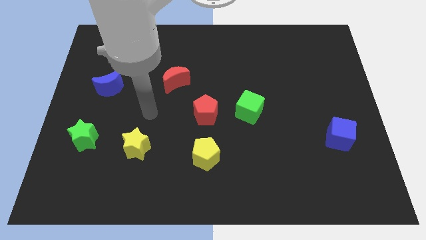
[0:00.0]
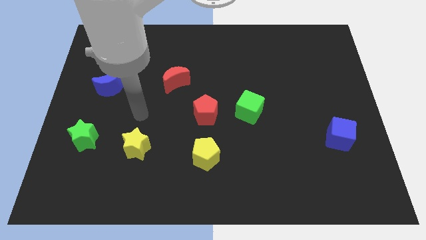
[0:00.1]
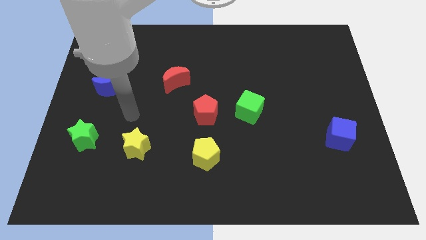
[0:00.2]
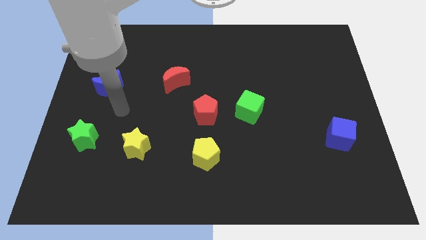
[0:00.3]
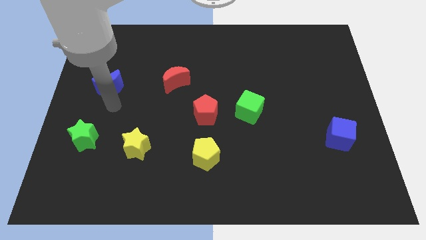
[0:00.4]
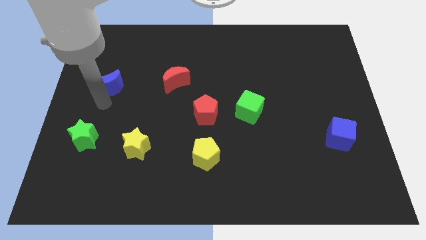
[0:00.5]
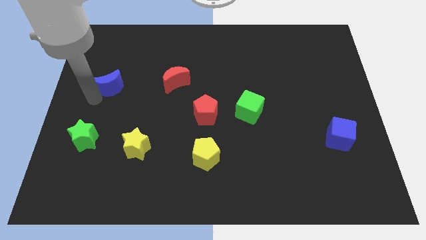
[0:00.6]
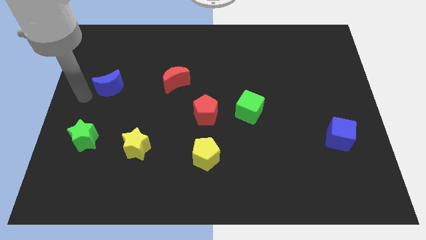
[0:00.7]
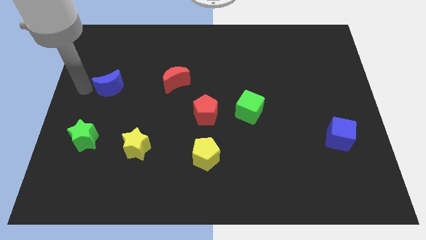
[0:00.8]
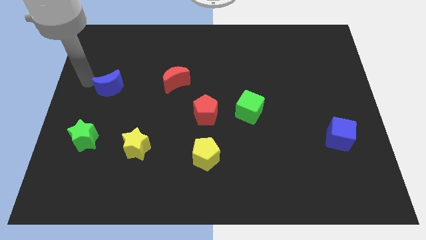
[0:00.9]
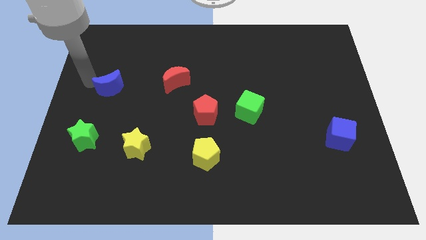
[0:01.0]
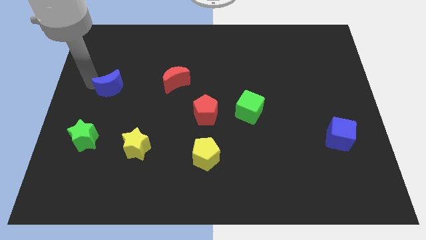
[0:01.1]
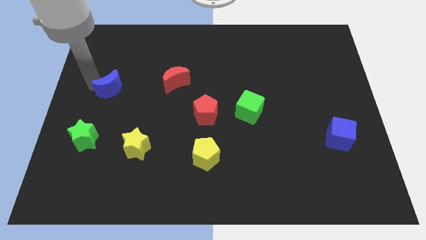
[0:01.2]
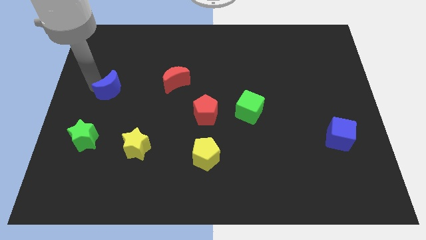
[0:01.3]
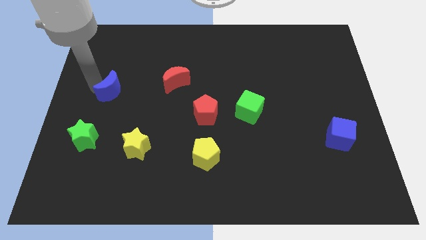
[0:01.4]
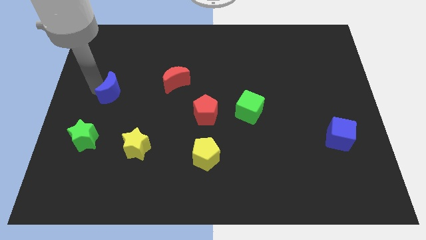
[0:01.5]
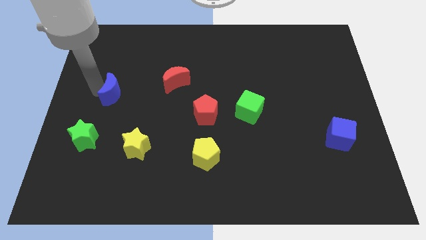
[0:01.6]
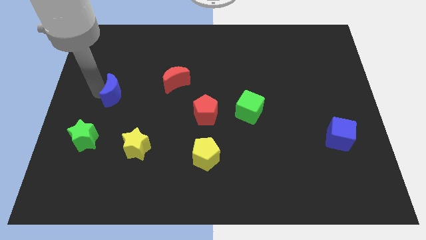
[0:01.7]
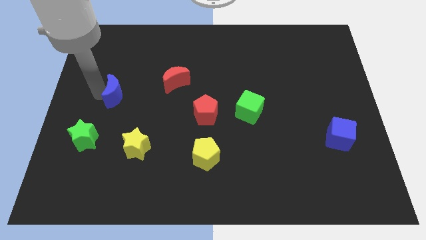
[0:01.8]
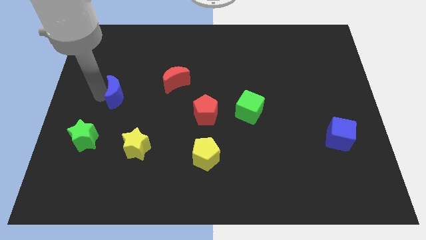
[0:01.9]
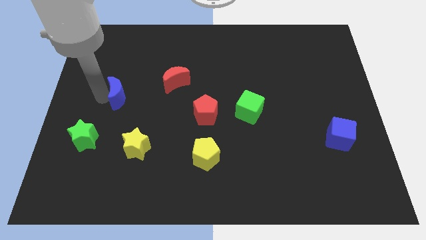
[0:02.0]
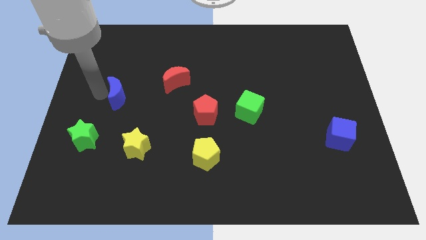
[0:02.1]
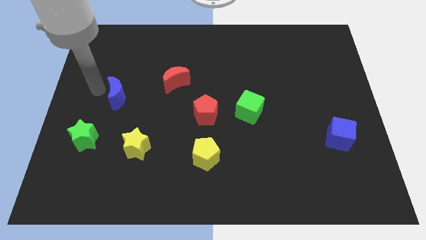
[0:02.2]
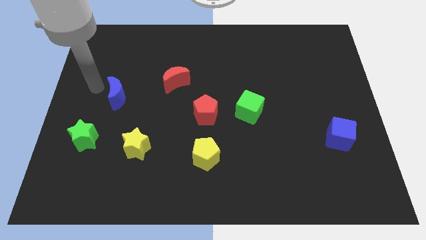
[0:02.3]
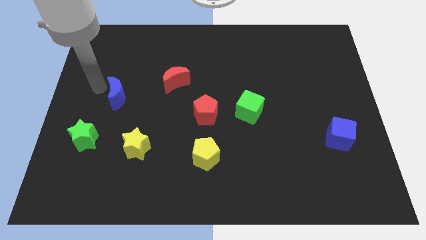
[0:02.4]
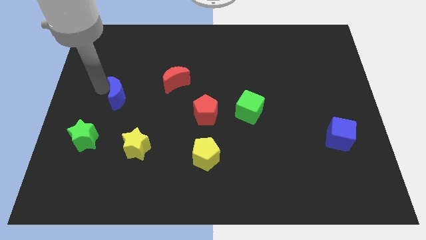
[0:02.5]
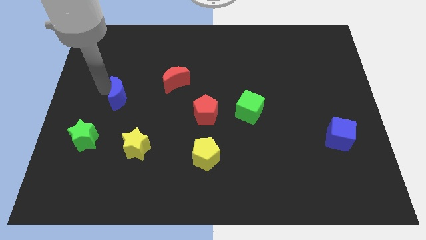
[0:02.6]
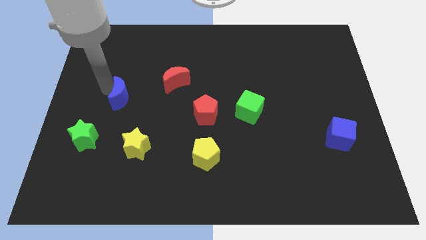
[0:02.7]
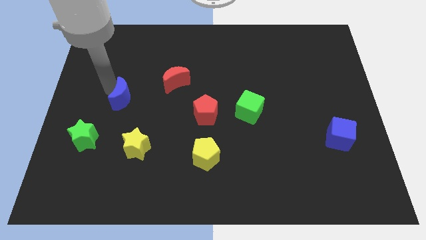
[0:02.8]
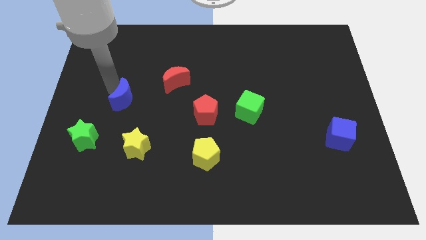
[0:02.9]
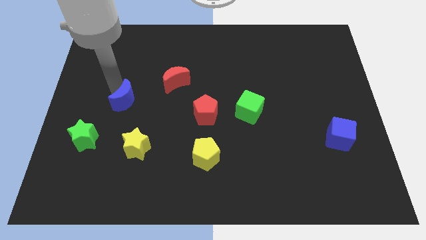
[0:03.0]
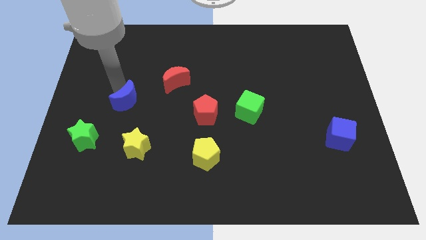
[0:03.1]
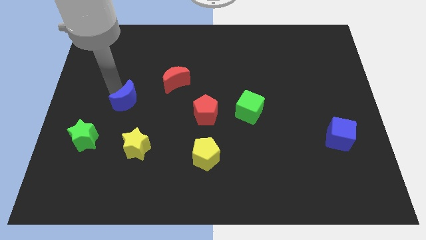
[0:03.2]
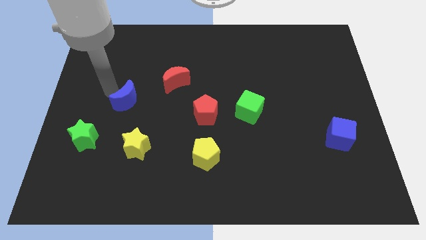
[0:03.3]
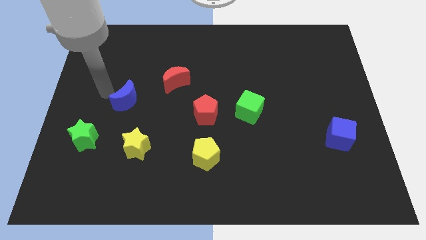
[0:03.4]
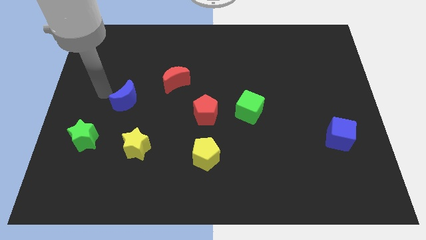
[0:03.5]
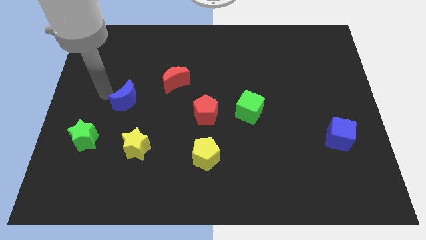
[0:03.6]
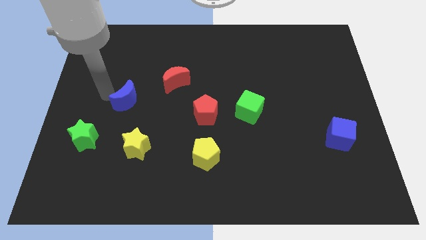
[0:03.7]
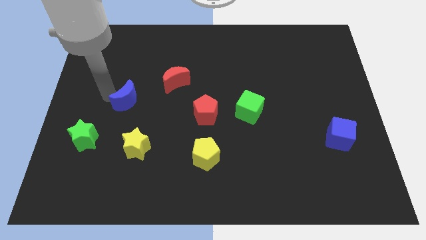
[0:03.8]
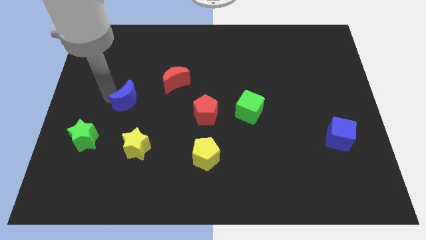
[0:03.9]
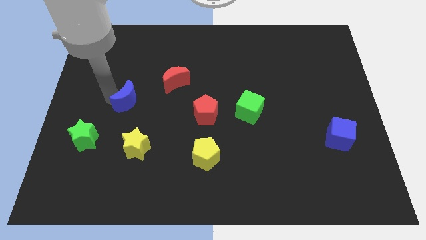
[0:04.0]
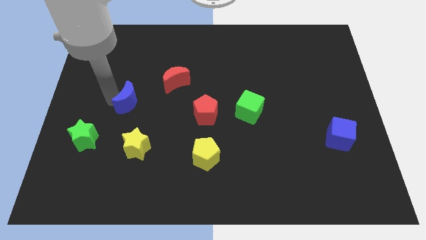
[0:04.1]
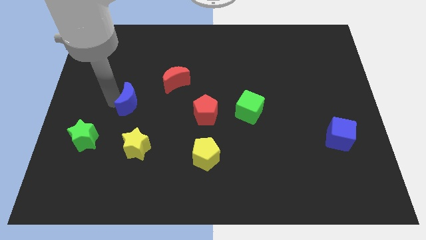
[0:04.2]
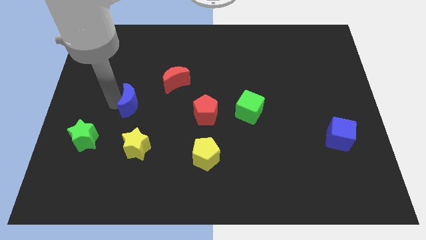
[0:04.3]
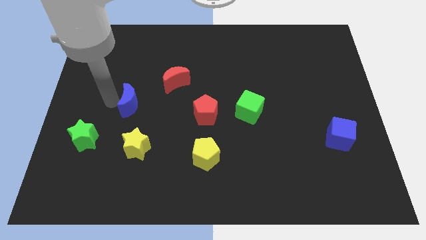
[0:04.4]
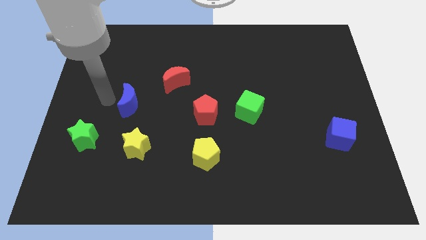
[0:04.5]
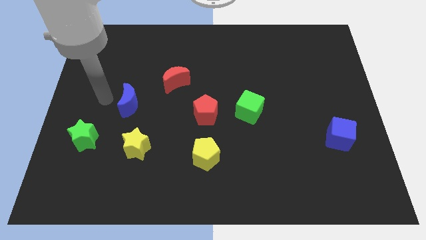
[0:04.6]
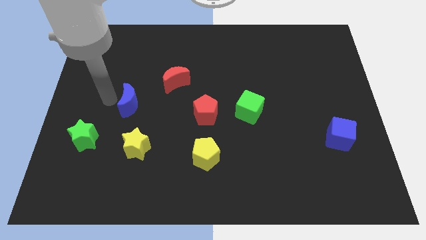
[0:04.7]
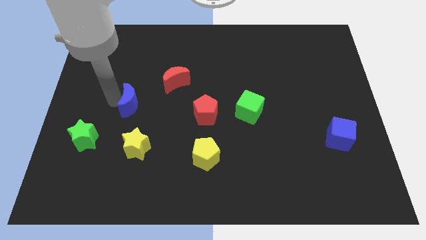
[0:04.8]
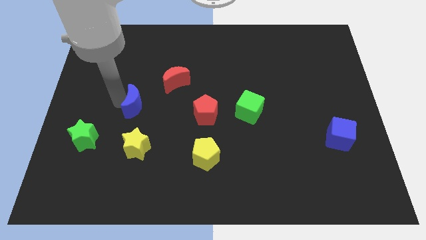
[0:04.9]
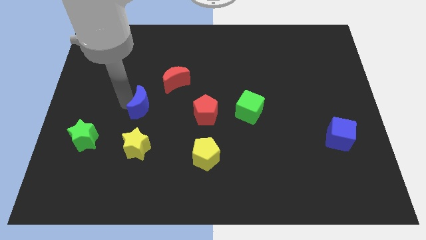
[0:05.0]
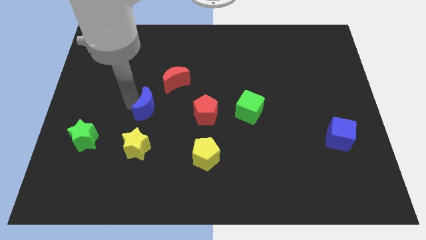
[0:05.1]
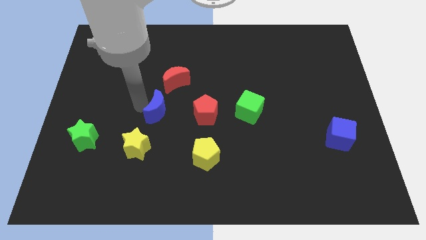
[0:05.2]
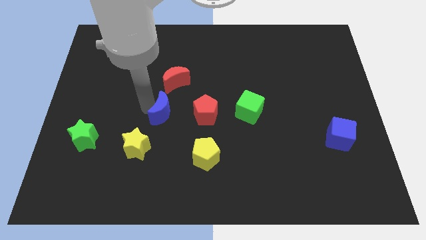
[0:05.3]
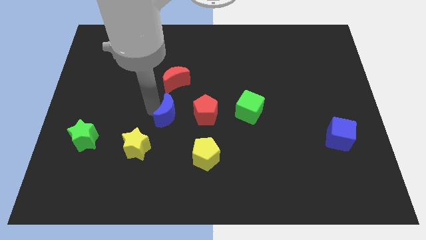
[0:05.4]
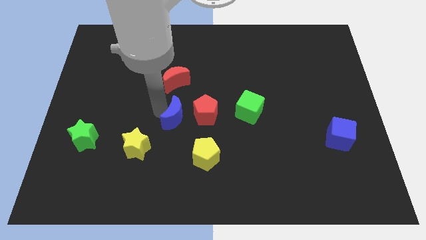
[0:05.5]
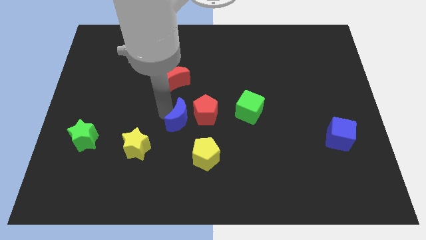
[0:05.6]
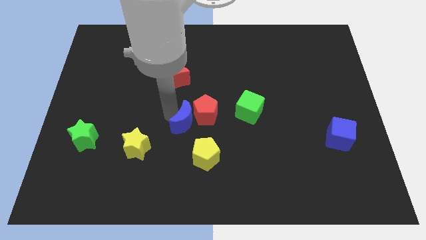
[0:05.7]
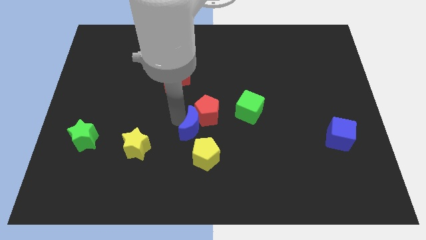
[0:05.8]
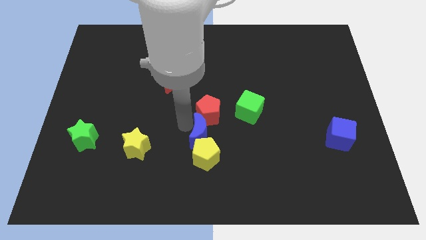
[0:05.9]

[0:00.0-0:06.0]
slide the blue moon diagonally up and to the right of the yellow pentagon

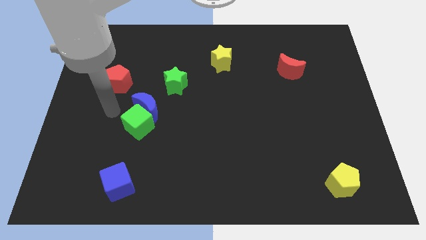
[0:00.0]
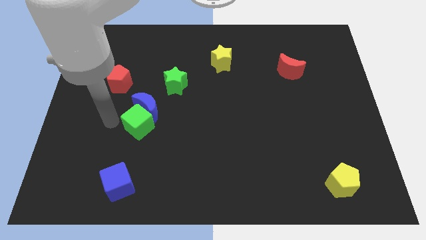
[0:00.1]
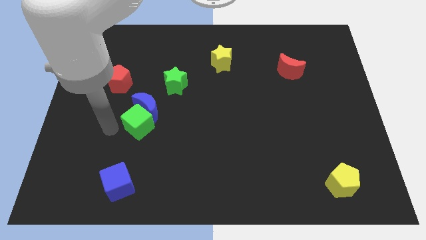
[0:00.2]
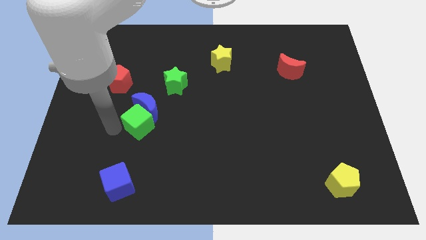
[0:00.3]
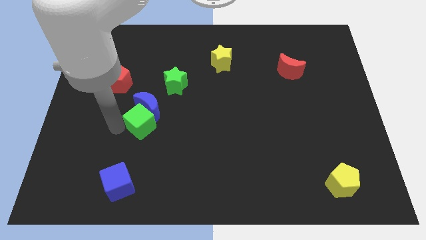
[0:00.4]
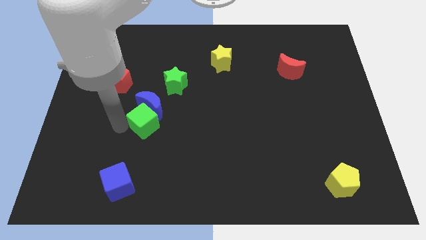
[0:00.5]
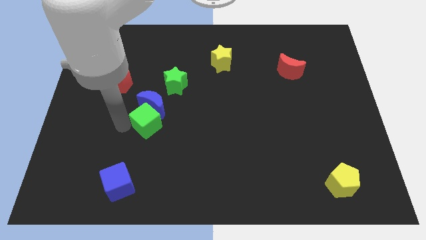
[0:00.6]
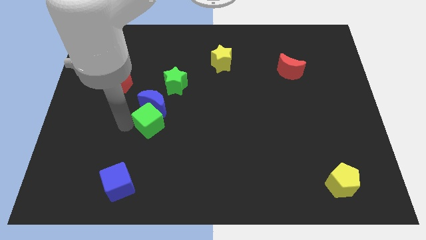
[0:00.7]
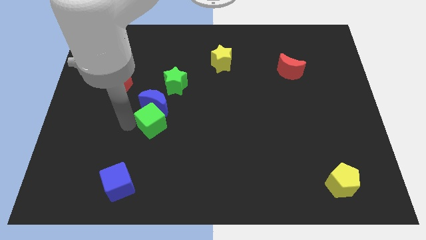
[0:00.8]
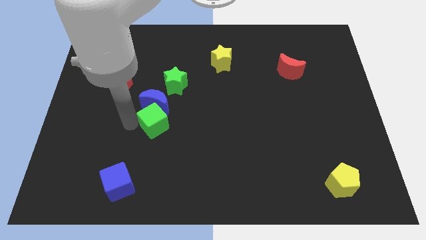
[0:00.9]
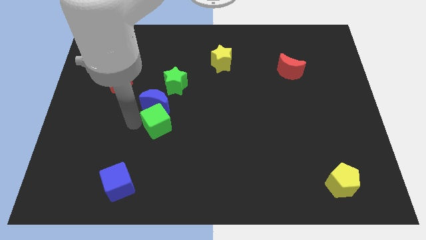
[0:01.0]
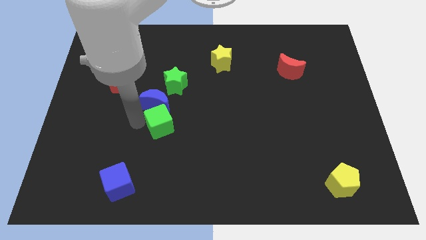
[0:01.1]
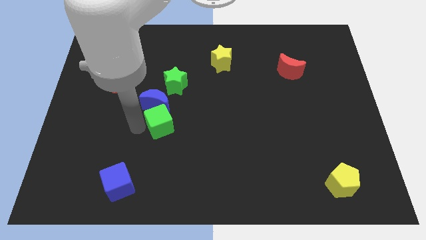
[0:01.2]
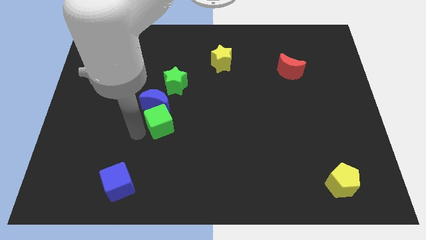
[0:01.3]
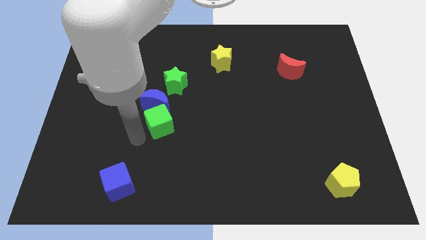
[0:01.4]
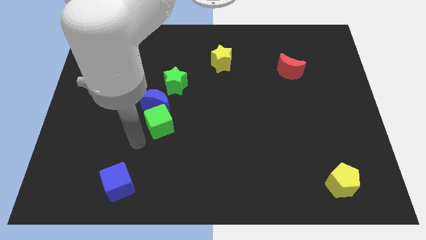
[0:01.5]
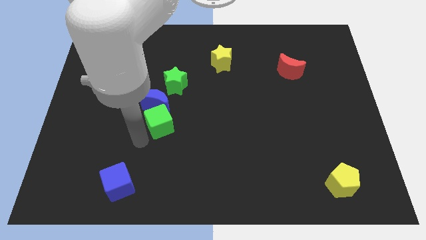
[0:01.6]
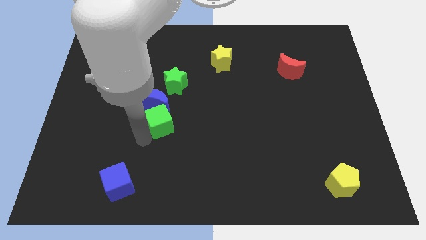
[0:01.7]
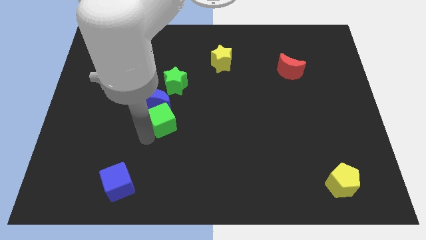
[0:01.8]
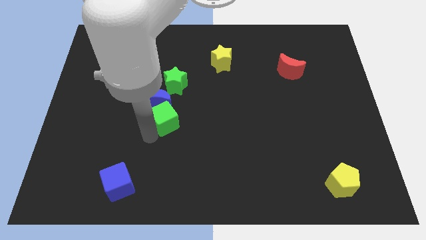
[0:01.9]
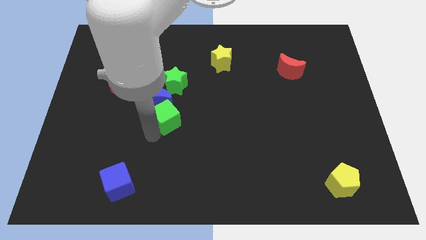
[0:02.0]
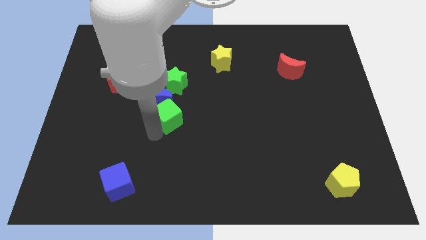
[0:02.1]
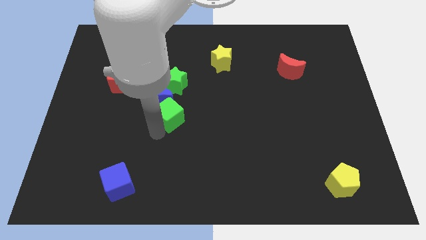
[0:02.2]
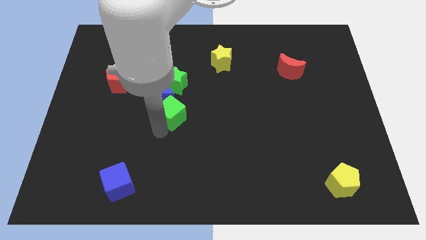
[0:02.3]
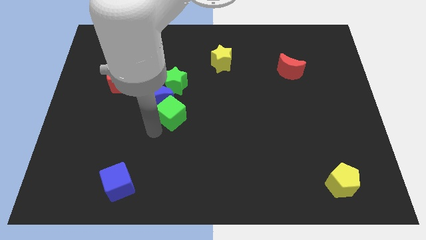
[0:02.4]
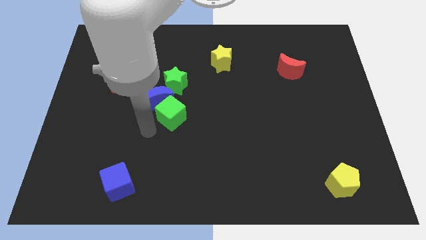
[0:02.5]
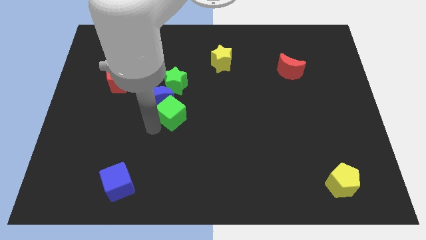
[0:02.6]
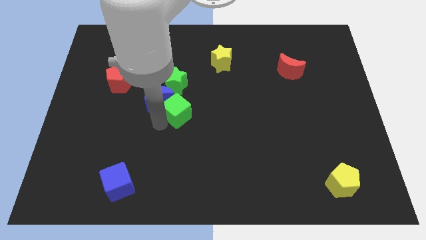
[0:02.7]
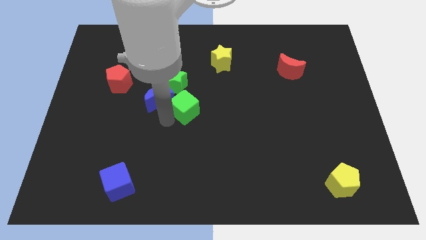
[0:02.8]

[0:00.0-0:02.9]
put the green cube to the bottom right side of the green star
